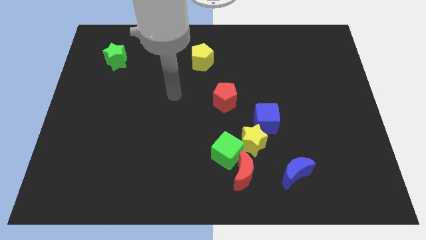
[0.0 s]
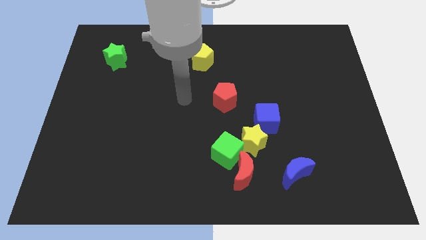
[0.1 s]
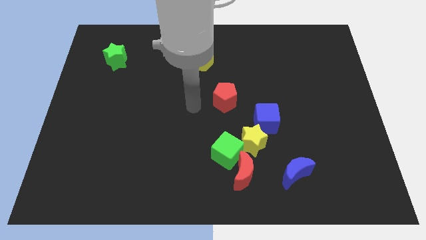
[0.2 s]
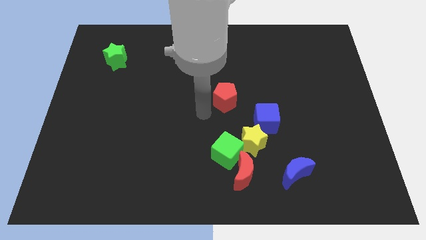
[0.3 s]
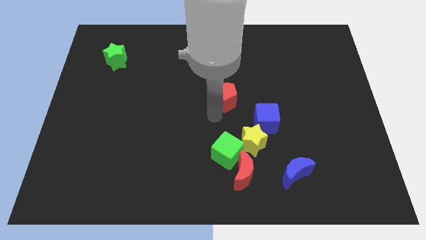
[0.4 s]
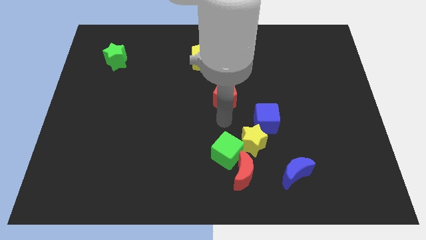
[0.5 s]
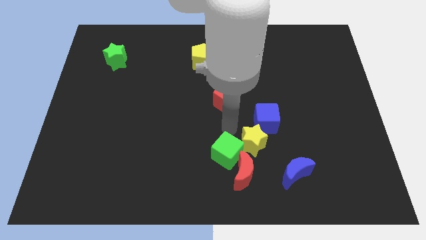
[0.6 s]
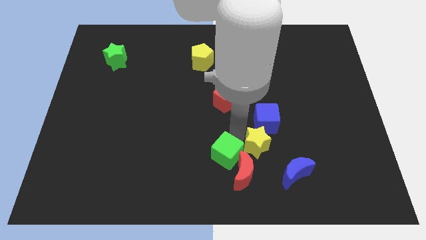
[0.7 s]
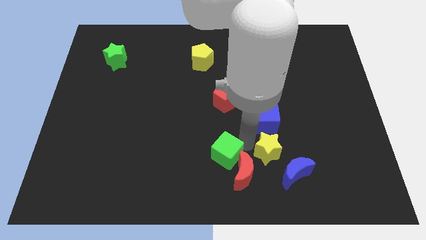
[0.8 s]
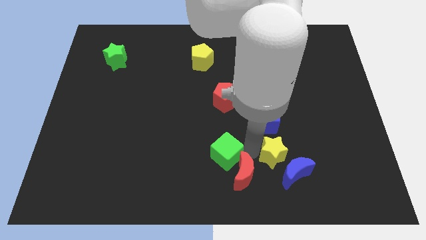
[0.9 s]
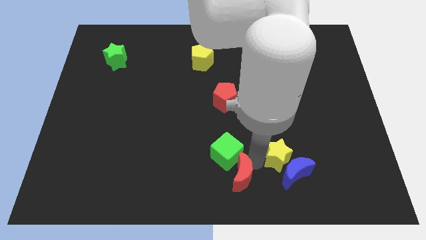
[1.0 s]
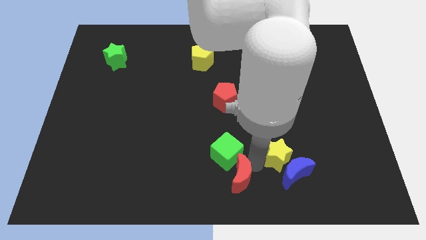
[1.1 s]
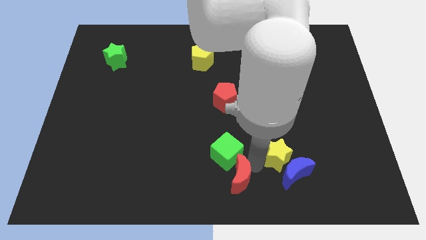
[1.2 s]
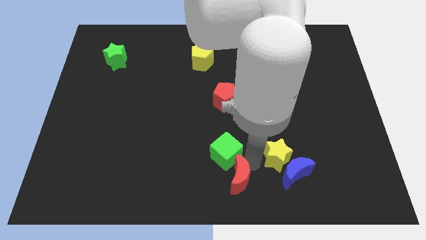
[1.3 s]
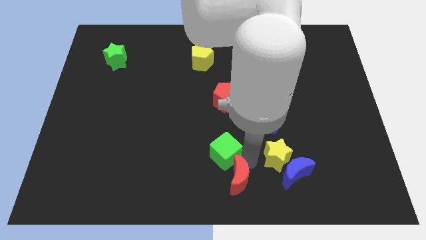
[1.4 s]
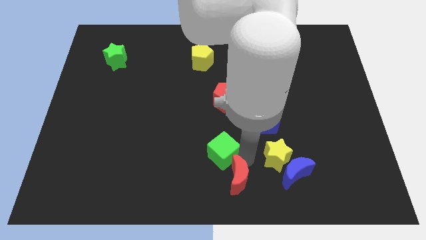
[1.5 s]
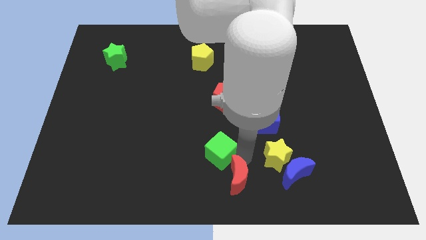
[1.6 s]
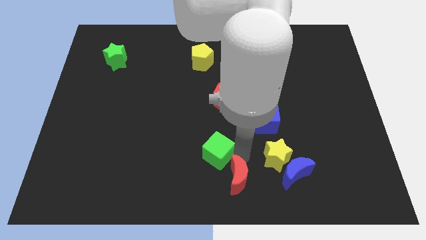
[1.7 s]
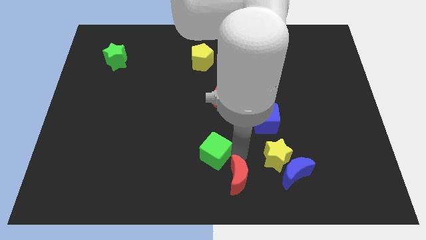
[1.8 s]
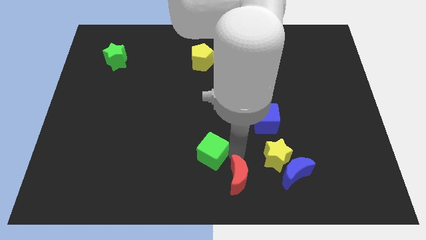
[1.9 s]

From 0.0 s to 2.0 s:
move the green cube away from the yellow star and red moon

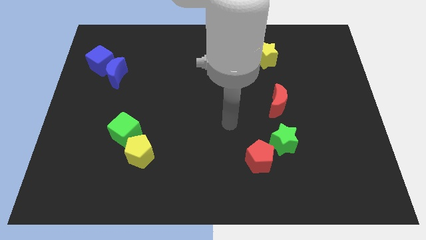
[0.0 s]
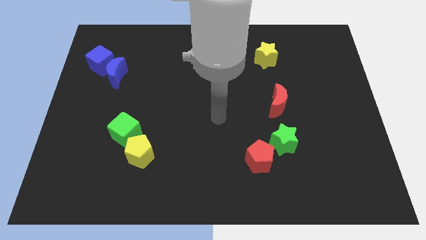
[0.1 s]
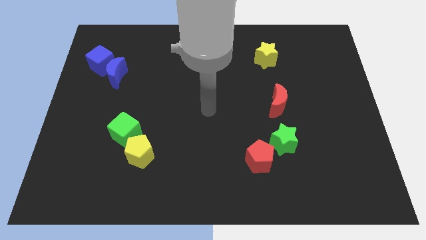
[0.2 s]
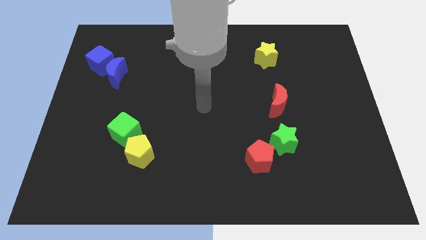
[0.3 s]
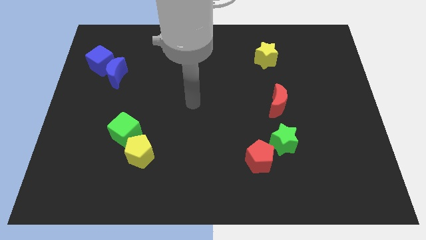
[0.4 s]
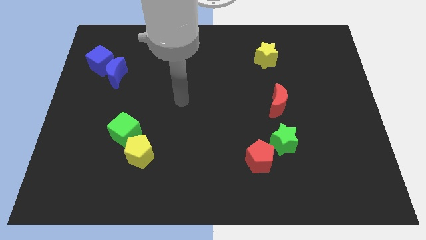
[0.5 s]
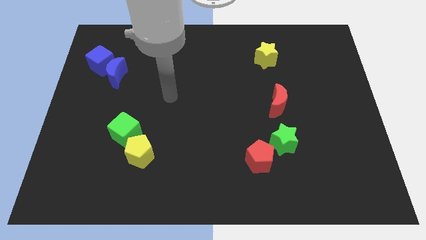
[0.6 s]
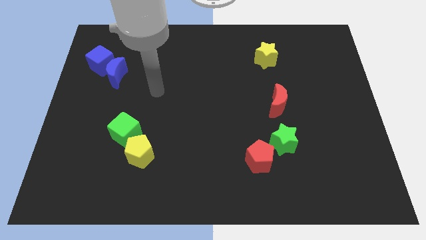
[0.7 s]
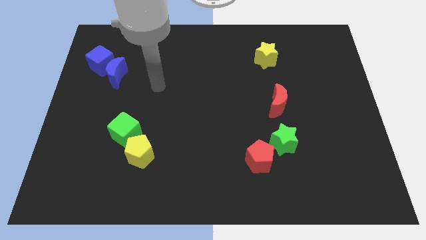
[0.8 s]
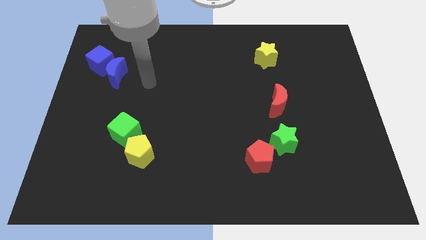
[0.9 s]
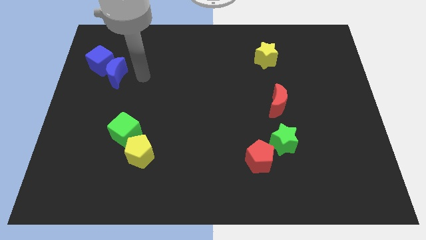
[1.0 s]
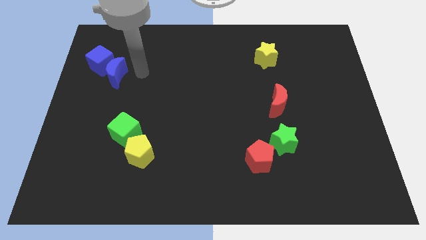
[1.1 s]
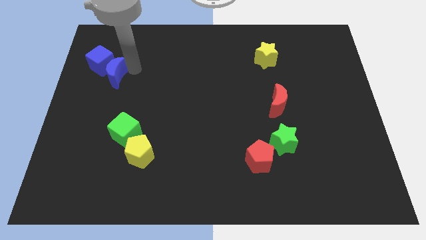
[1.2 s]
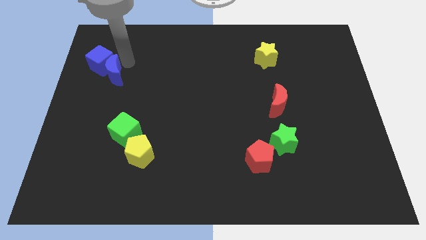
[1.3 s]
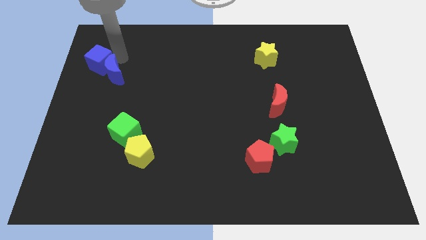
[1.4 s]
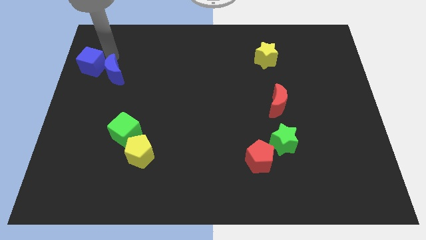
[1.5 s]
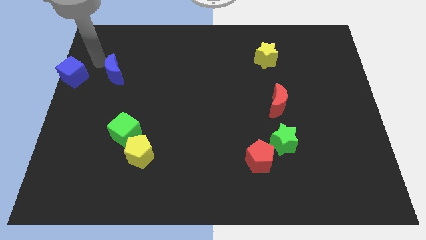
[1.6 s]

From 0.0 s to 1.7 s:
separate the blue moon from the blue cube

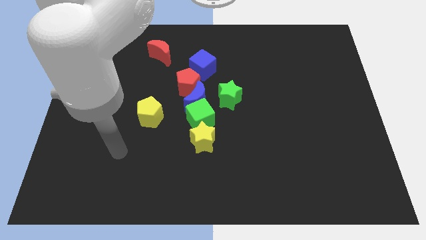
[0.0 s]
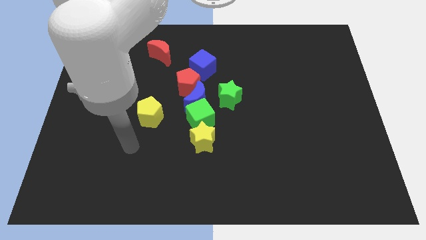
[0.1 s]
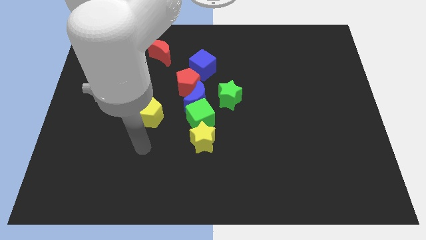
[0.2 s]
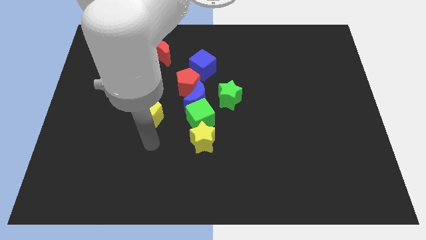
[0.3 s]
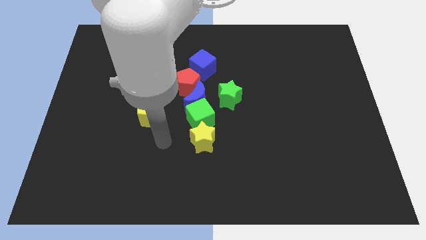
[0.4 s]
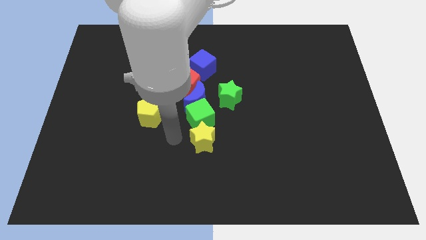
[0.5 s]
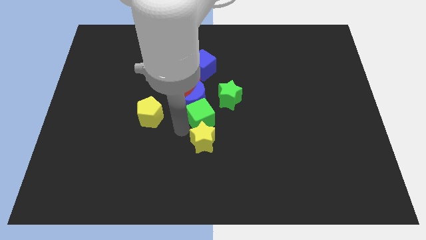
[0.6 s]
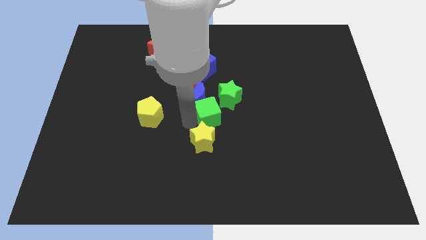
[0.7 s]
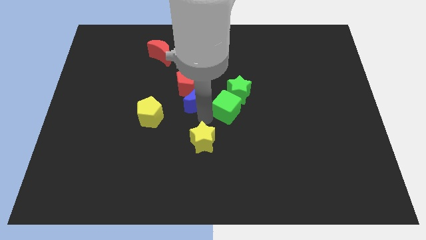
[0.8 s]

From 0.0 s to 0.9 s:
separate the yellow star from the green cube

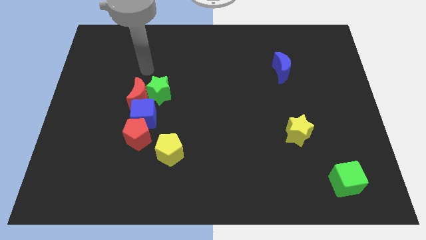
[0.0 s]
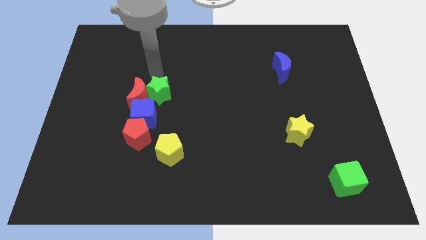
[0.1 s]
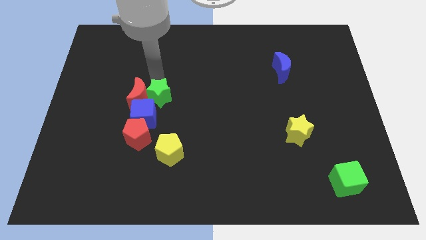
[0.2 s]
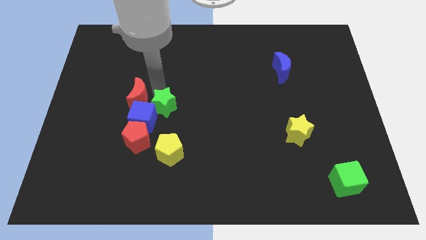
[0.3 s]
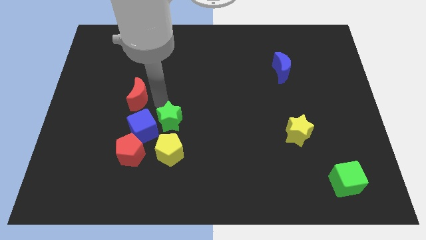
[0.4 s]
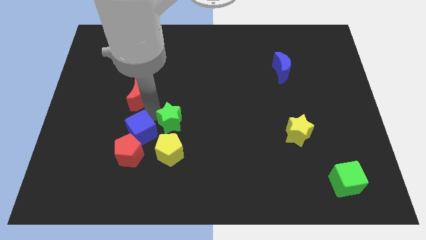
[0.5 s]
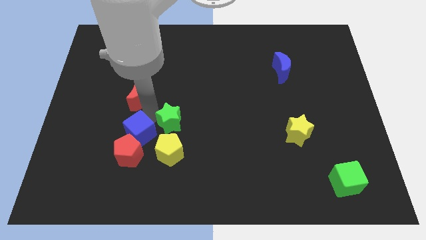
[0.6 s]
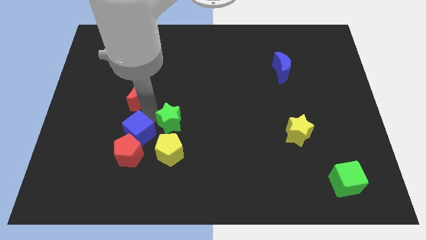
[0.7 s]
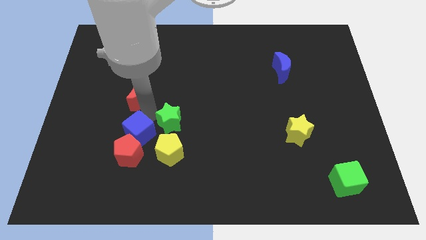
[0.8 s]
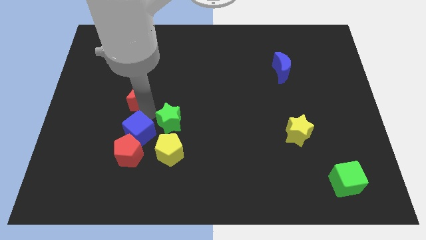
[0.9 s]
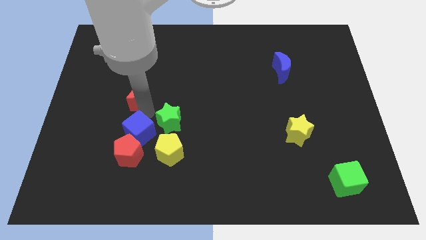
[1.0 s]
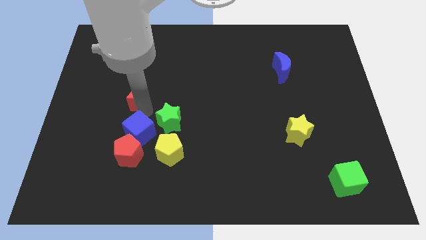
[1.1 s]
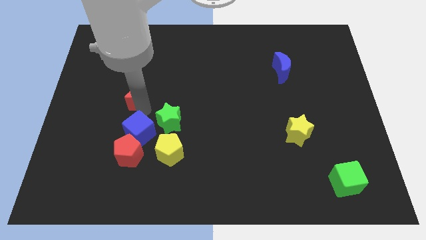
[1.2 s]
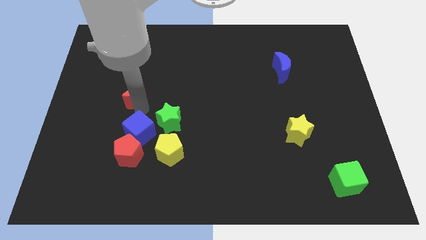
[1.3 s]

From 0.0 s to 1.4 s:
separate the red moon from the green star and blue cube

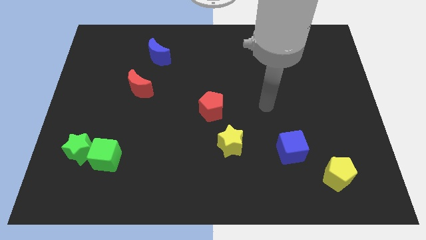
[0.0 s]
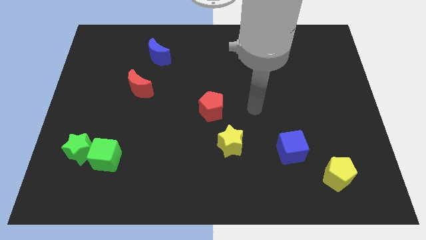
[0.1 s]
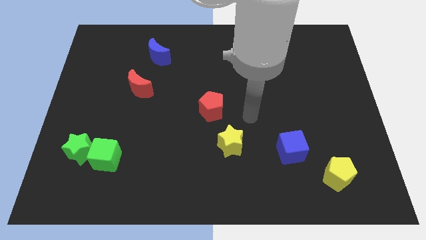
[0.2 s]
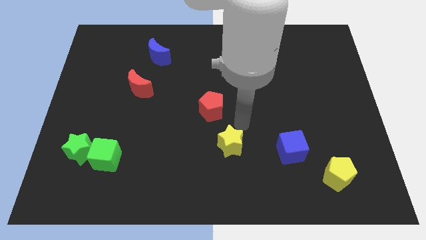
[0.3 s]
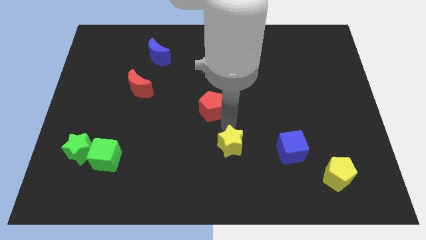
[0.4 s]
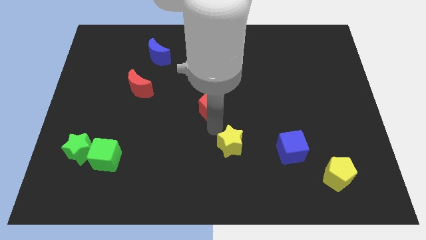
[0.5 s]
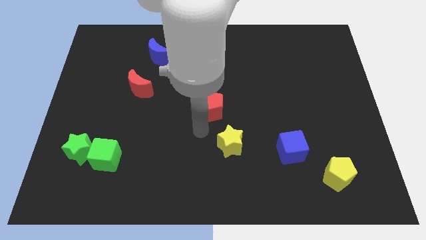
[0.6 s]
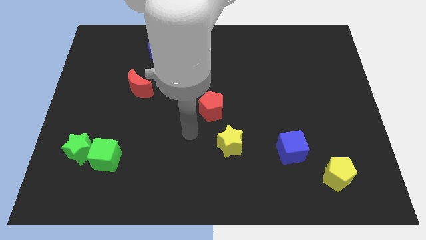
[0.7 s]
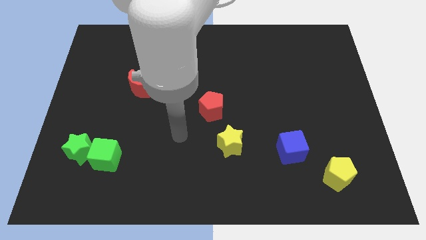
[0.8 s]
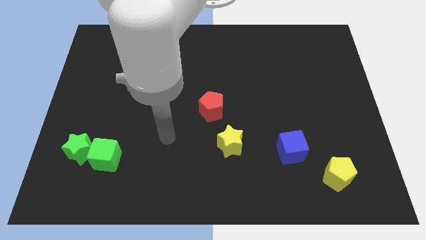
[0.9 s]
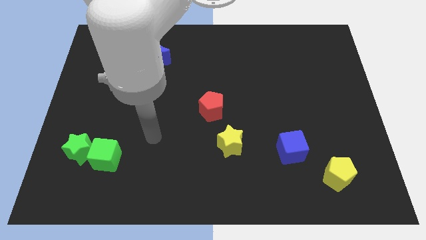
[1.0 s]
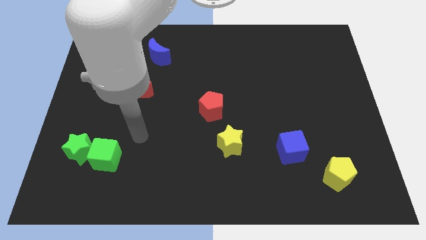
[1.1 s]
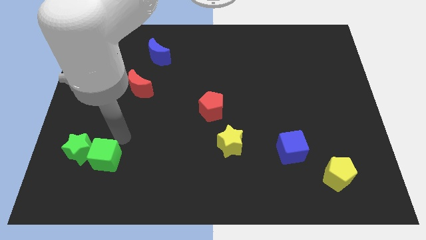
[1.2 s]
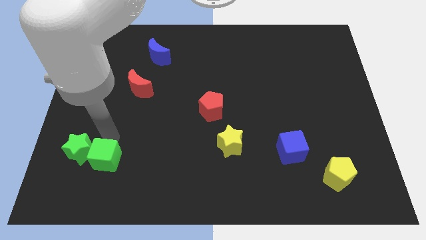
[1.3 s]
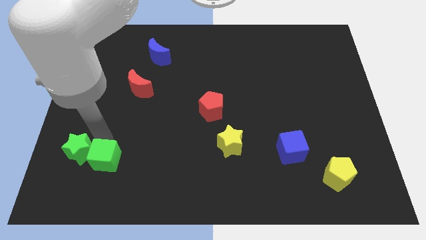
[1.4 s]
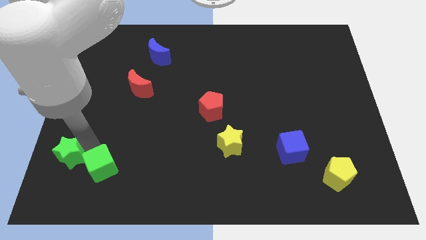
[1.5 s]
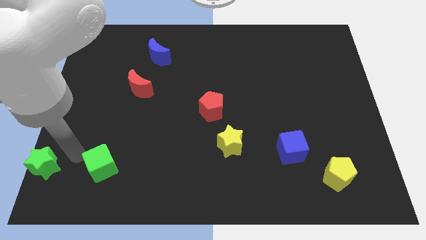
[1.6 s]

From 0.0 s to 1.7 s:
pull the green cube apart from the green star

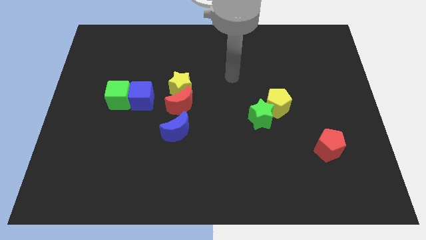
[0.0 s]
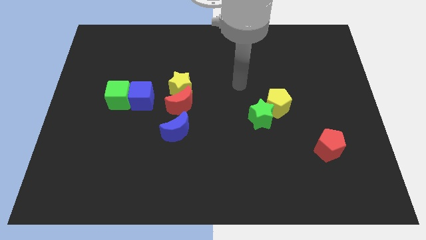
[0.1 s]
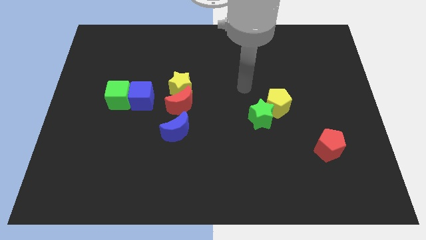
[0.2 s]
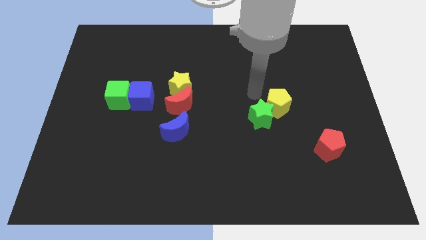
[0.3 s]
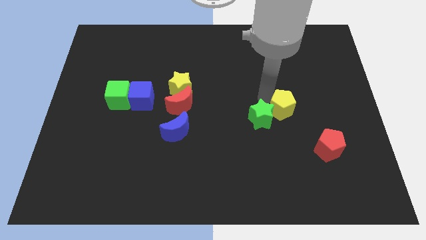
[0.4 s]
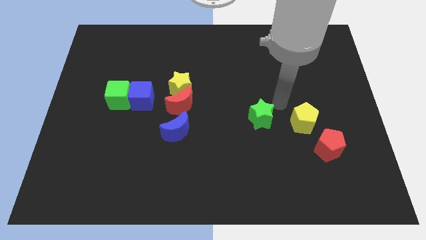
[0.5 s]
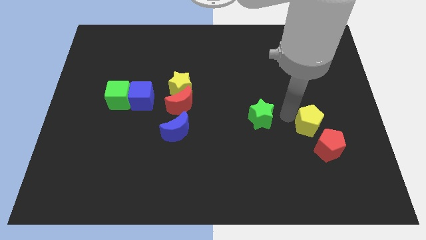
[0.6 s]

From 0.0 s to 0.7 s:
separate the green star from the yellow pentagon

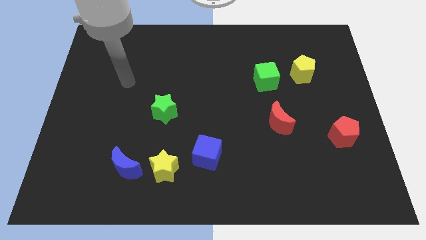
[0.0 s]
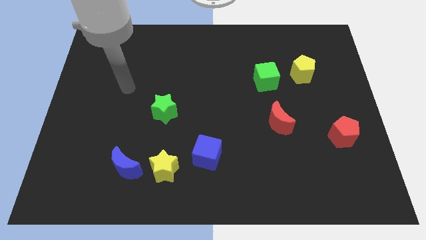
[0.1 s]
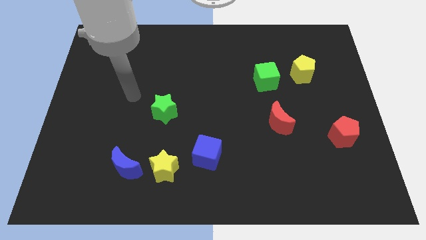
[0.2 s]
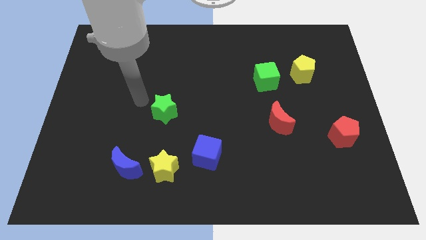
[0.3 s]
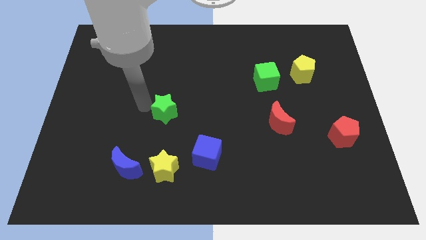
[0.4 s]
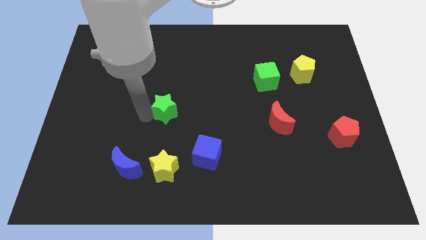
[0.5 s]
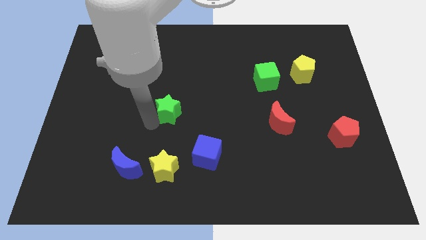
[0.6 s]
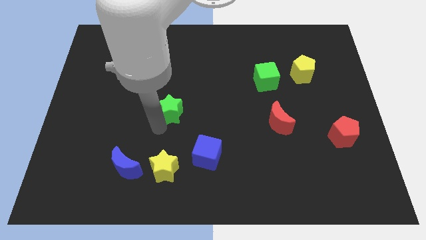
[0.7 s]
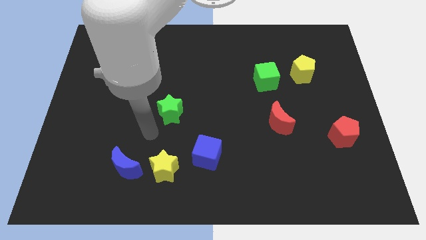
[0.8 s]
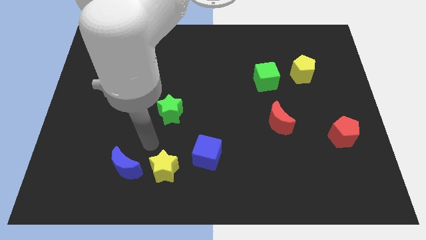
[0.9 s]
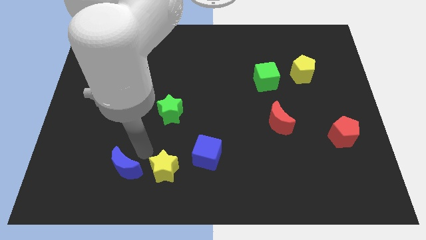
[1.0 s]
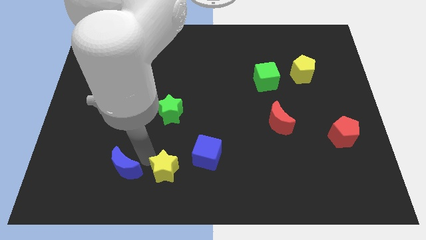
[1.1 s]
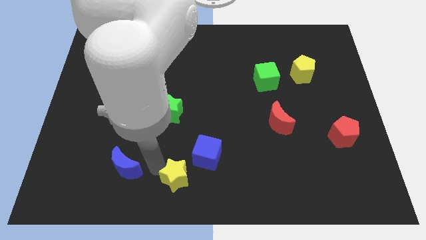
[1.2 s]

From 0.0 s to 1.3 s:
move the blue moon away from the yellow star
